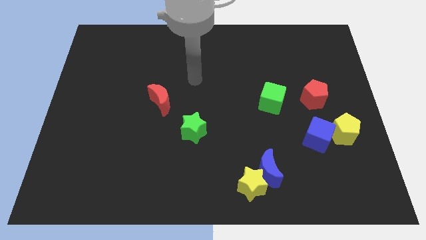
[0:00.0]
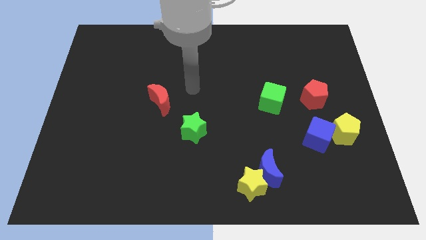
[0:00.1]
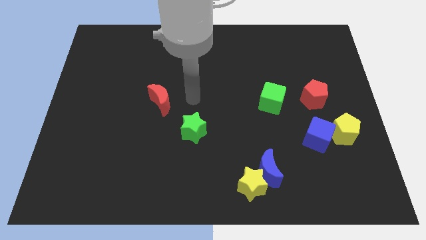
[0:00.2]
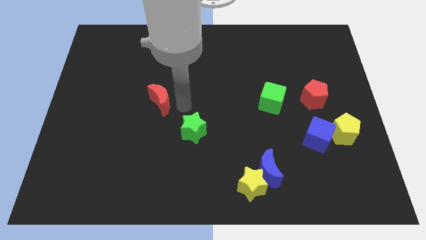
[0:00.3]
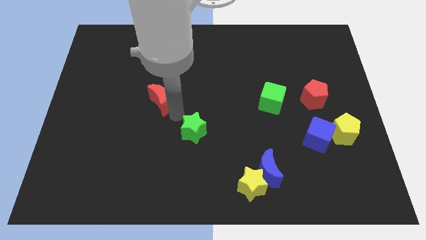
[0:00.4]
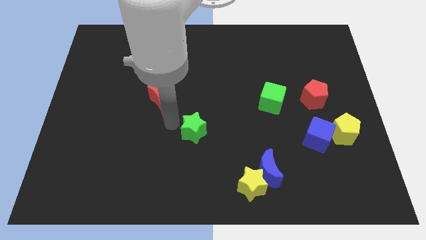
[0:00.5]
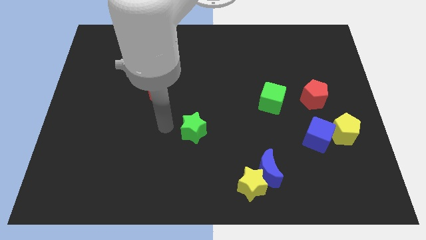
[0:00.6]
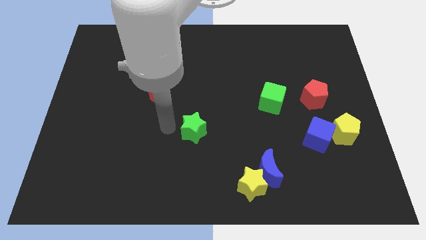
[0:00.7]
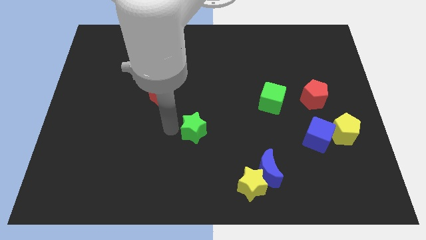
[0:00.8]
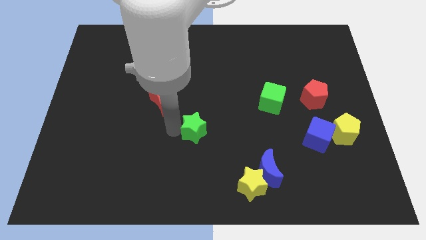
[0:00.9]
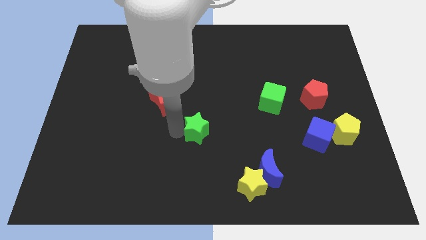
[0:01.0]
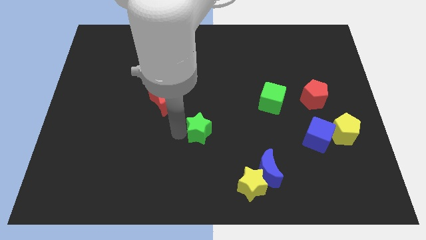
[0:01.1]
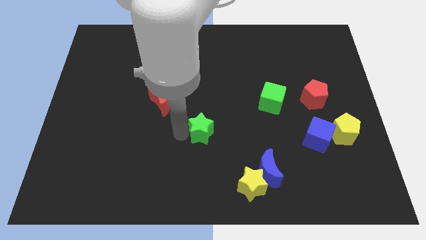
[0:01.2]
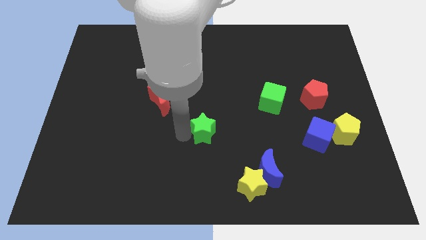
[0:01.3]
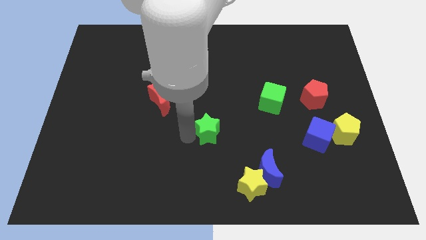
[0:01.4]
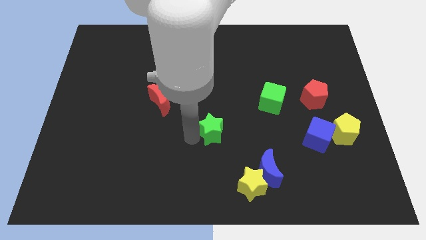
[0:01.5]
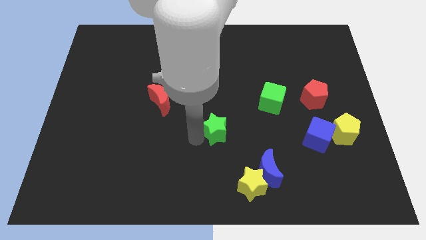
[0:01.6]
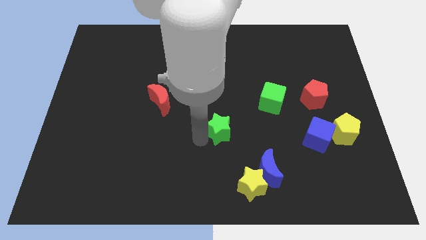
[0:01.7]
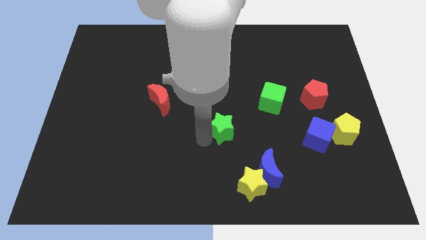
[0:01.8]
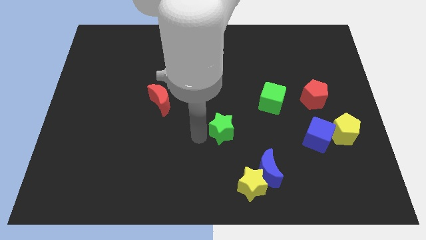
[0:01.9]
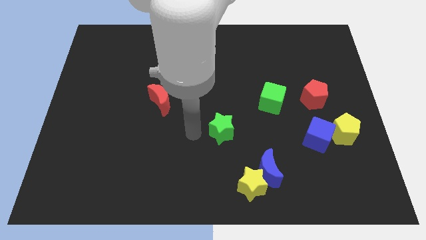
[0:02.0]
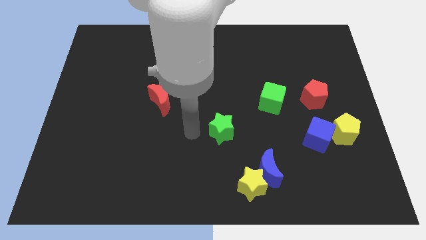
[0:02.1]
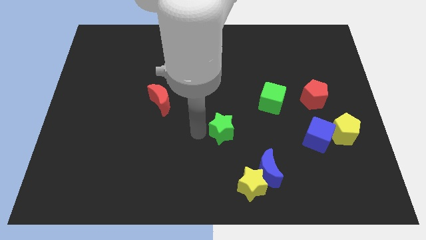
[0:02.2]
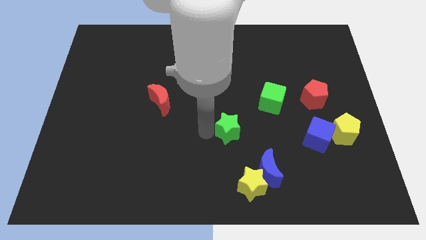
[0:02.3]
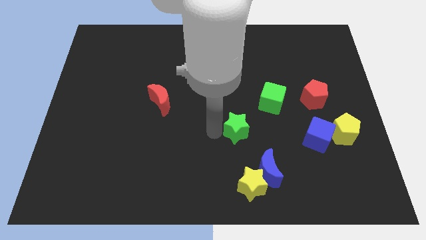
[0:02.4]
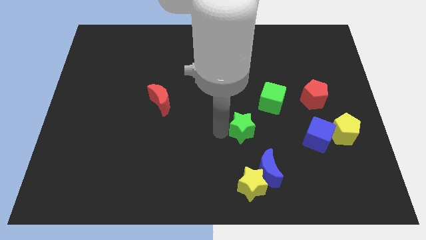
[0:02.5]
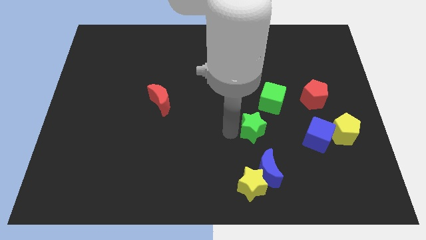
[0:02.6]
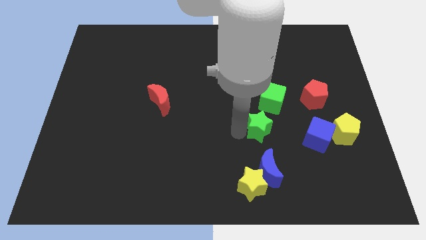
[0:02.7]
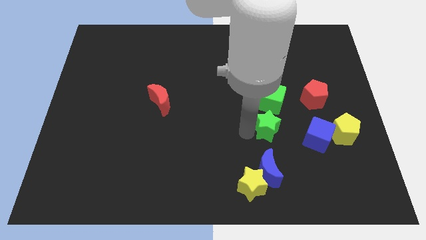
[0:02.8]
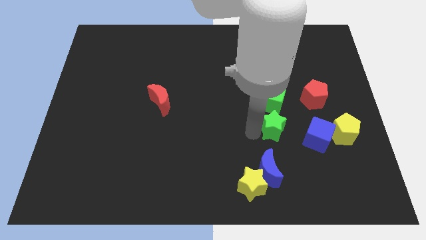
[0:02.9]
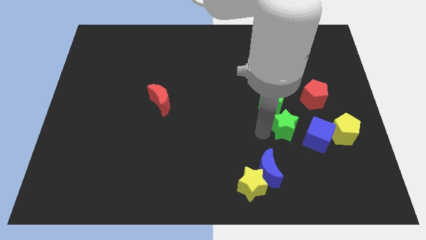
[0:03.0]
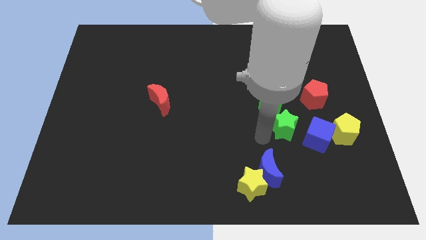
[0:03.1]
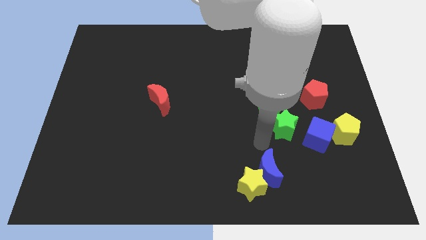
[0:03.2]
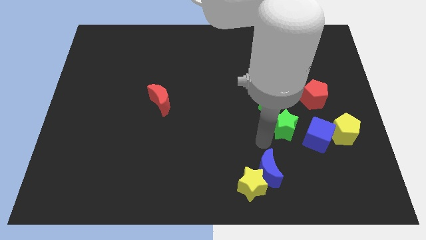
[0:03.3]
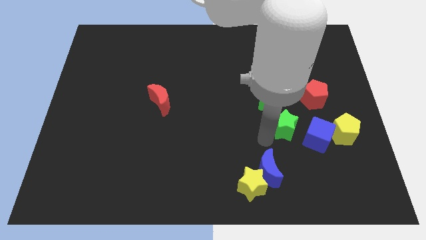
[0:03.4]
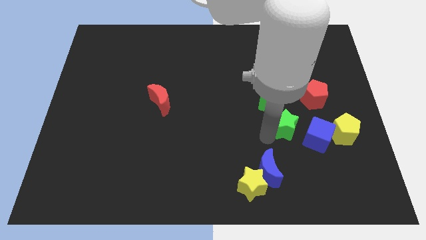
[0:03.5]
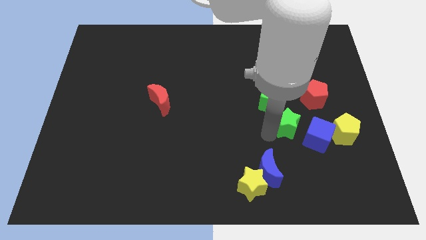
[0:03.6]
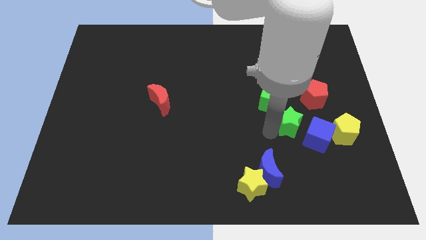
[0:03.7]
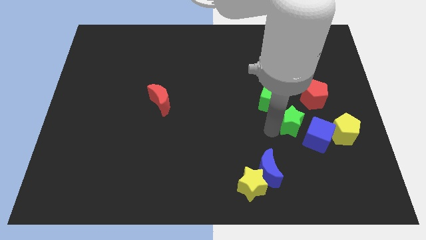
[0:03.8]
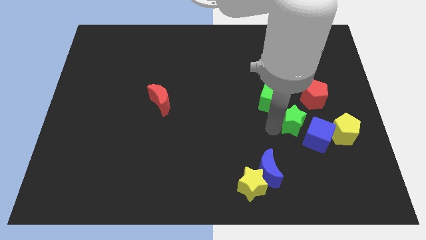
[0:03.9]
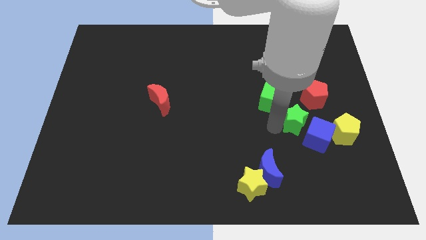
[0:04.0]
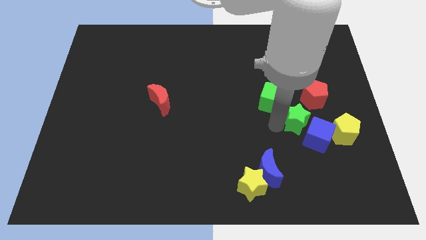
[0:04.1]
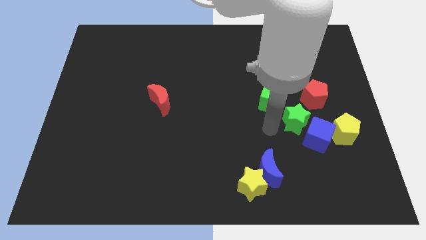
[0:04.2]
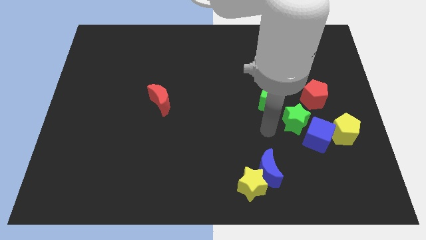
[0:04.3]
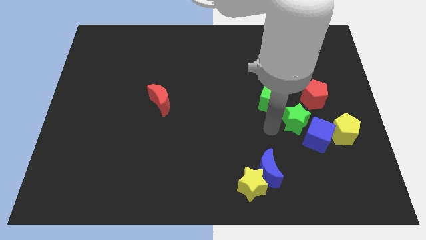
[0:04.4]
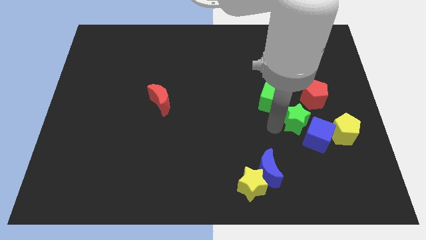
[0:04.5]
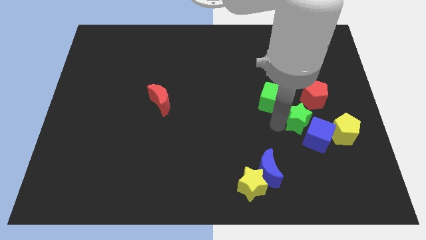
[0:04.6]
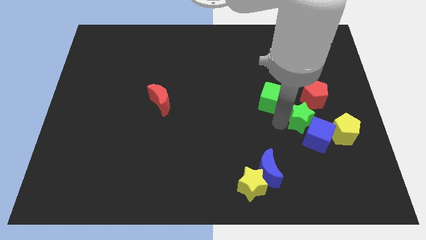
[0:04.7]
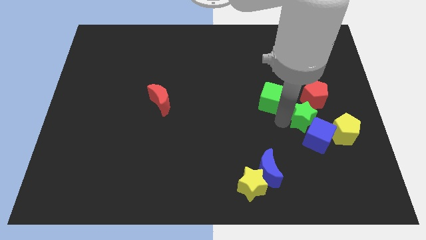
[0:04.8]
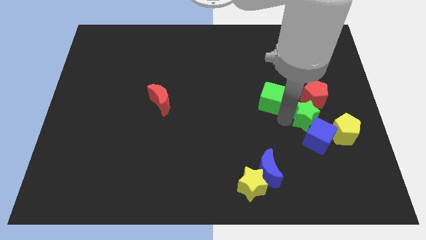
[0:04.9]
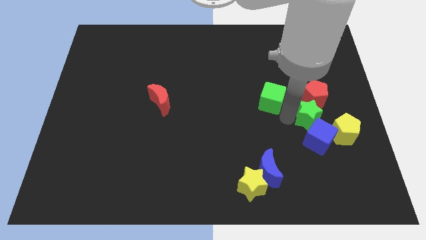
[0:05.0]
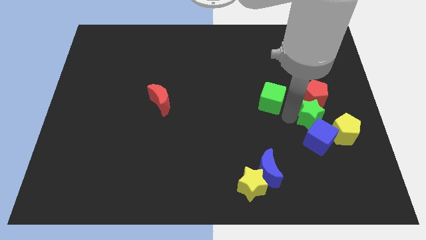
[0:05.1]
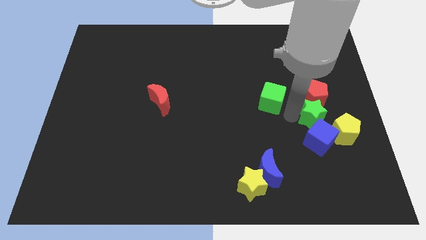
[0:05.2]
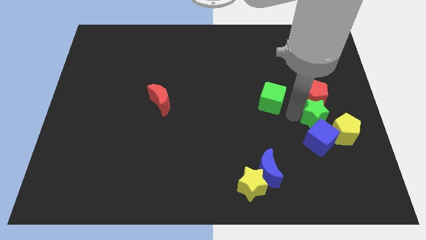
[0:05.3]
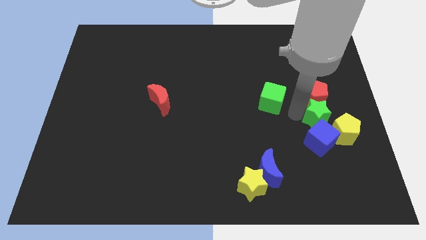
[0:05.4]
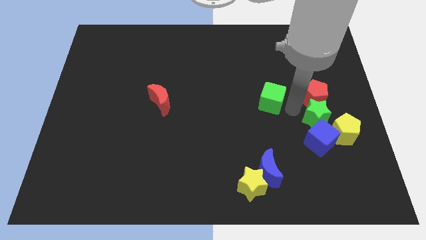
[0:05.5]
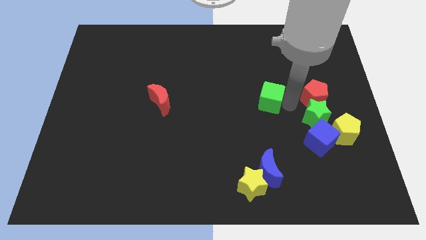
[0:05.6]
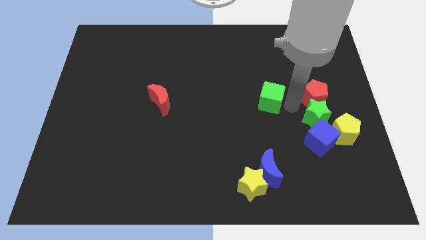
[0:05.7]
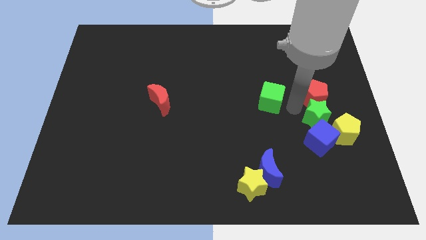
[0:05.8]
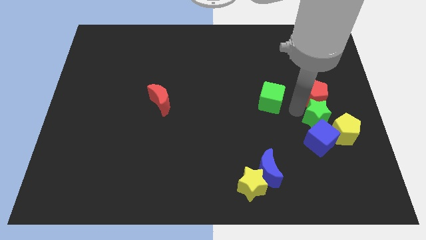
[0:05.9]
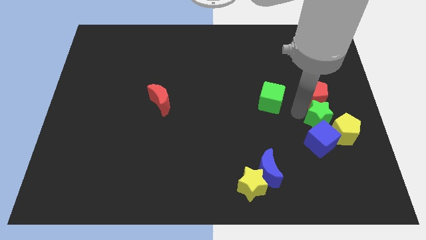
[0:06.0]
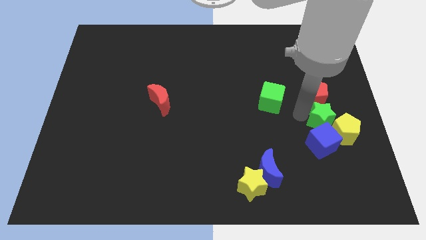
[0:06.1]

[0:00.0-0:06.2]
move the green star next to the yellow pentagon

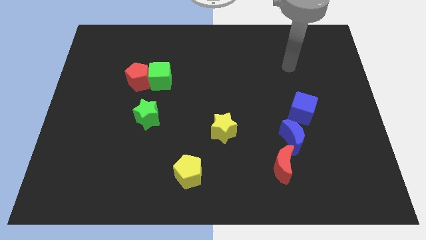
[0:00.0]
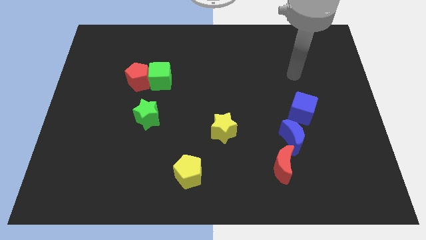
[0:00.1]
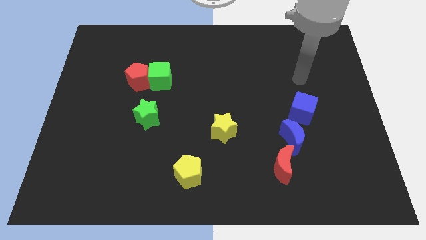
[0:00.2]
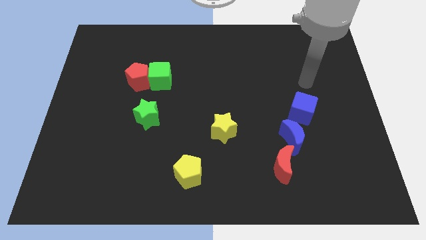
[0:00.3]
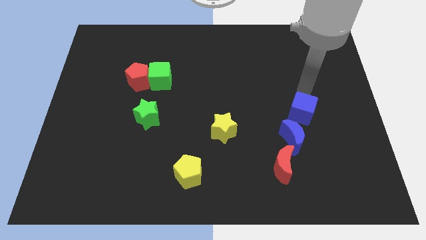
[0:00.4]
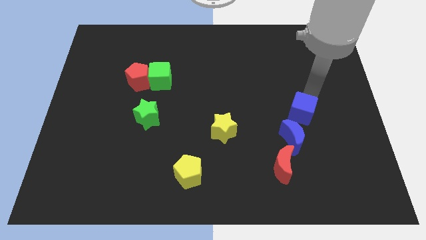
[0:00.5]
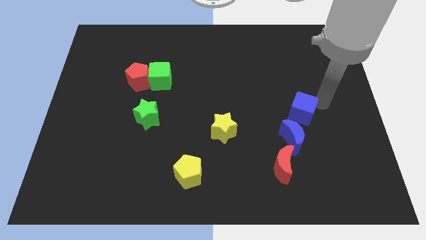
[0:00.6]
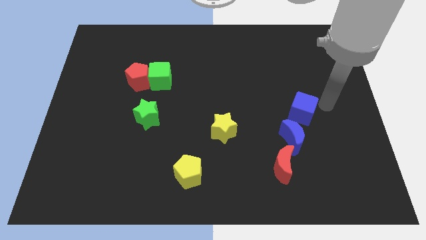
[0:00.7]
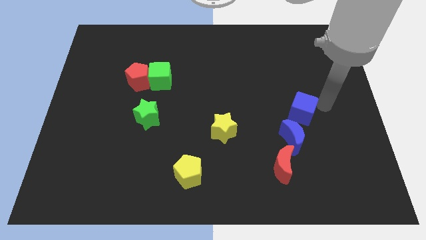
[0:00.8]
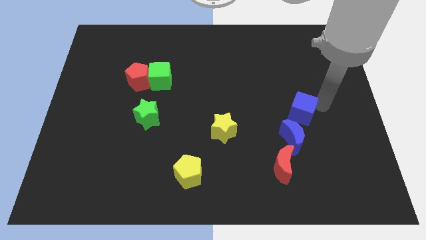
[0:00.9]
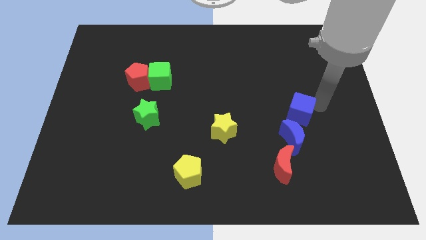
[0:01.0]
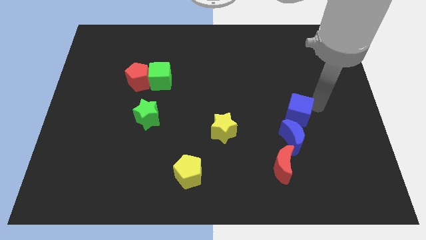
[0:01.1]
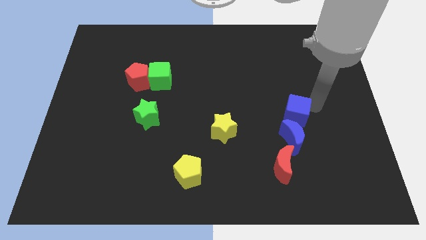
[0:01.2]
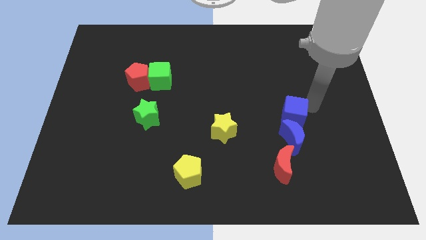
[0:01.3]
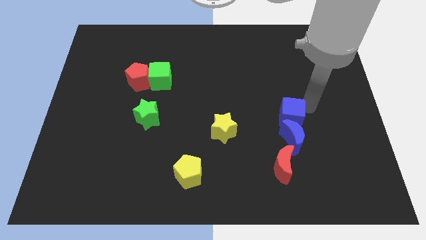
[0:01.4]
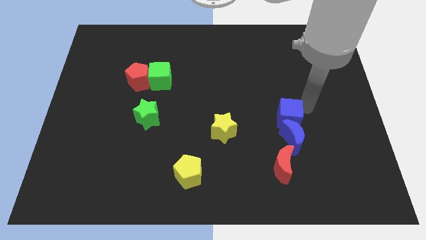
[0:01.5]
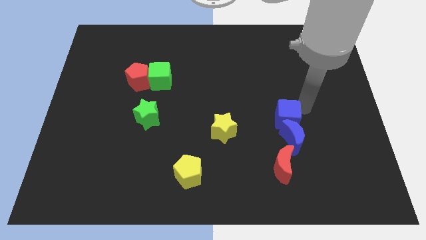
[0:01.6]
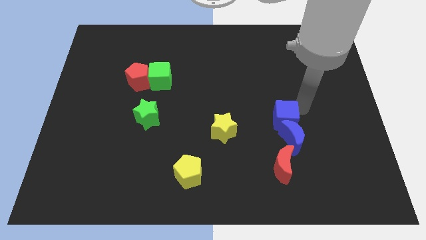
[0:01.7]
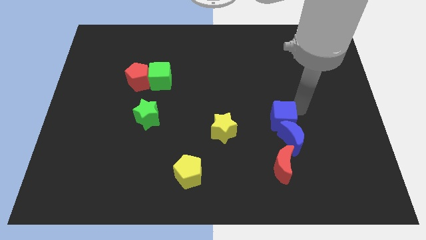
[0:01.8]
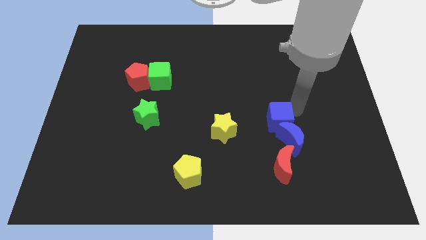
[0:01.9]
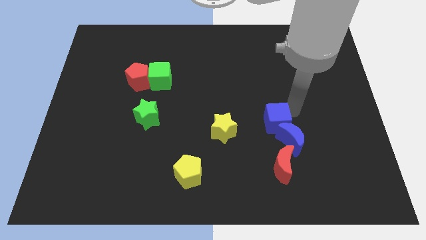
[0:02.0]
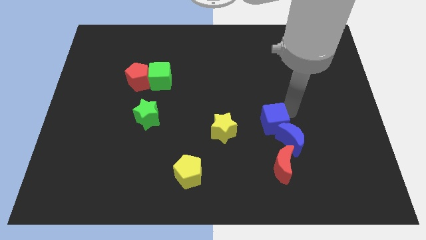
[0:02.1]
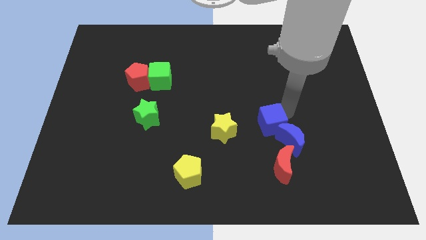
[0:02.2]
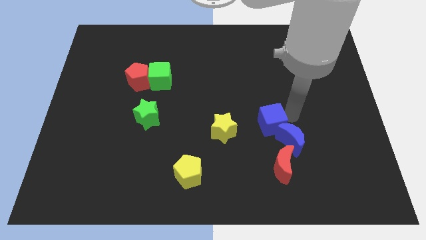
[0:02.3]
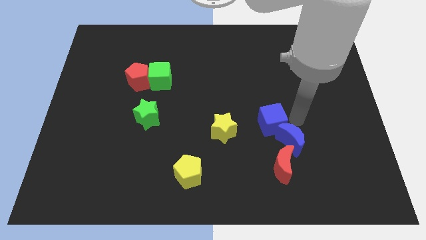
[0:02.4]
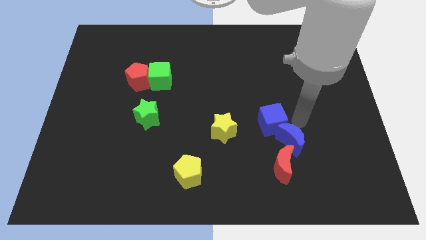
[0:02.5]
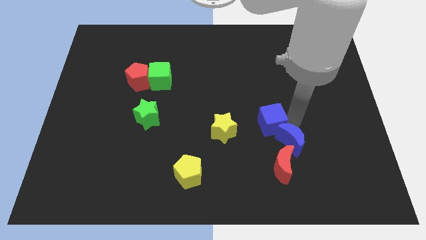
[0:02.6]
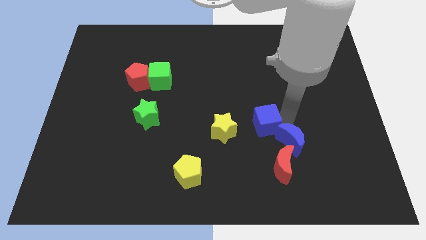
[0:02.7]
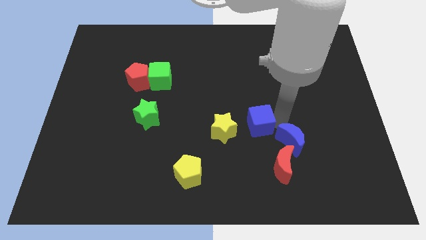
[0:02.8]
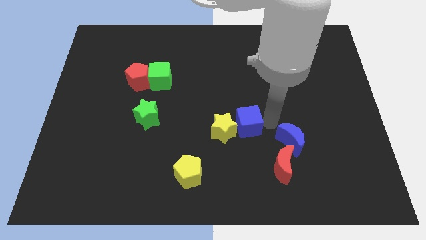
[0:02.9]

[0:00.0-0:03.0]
push the blue cube to the yellow star
